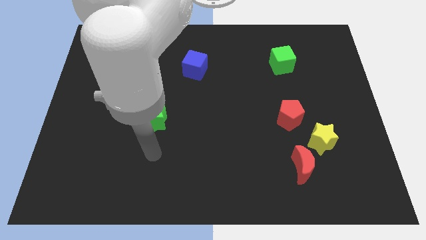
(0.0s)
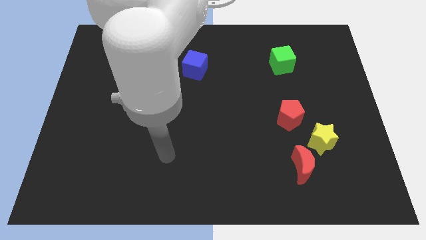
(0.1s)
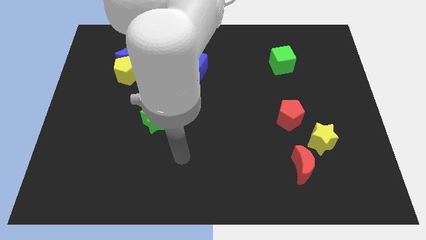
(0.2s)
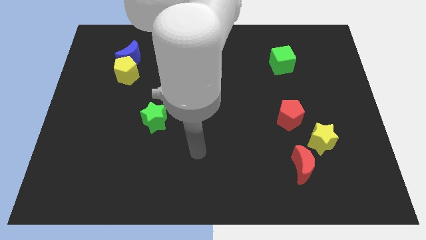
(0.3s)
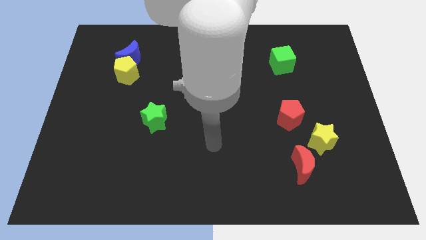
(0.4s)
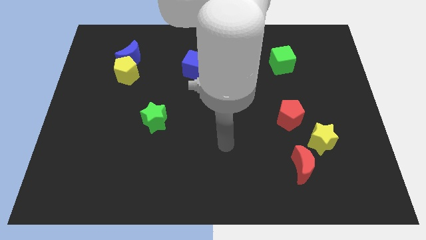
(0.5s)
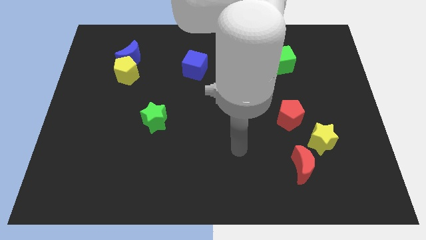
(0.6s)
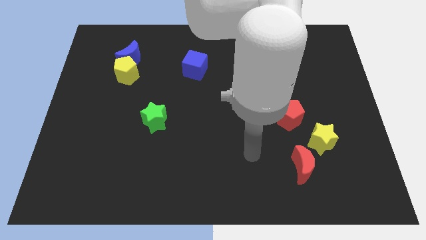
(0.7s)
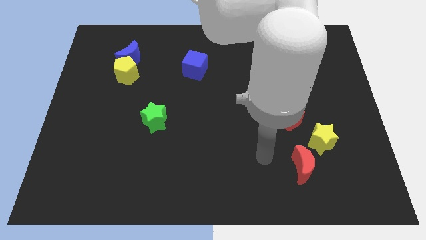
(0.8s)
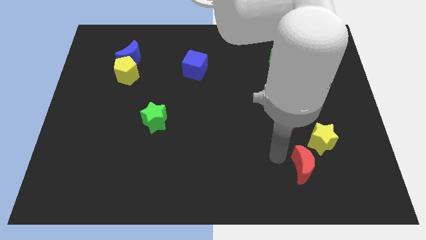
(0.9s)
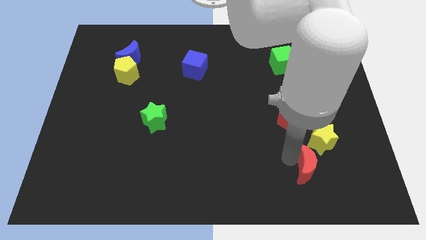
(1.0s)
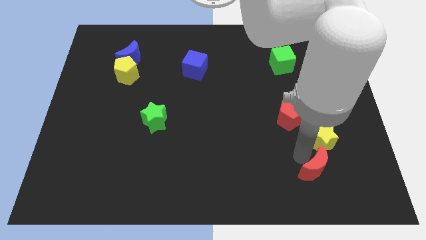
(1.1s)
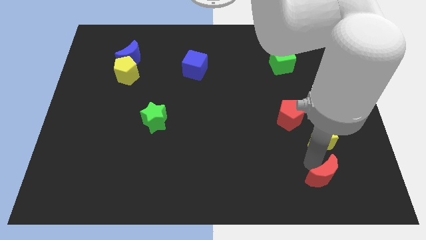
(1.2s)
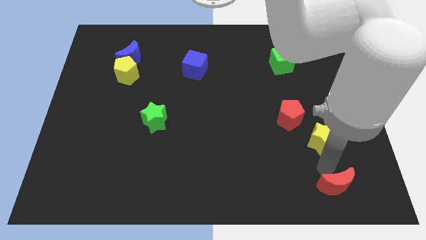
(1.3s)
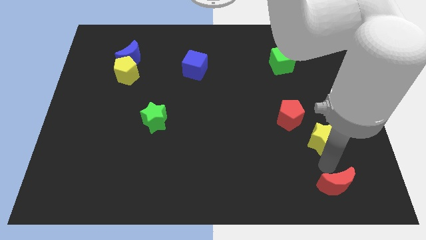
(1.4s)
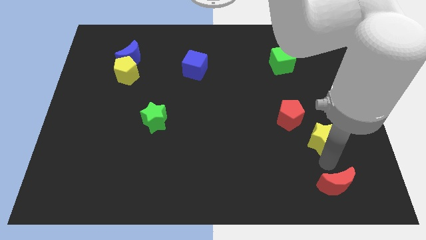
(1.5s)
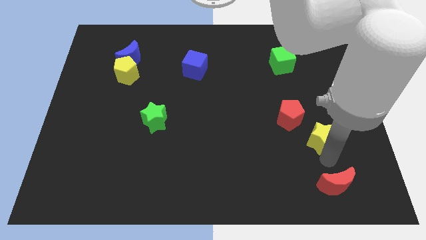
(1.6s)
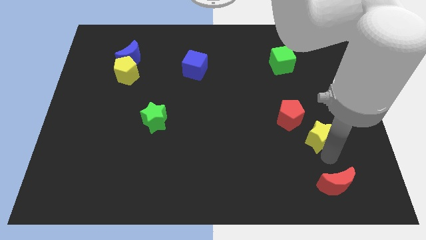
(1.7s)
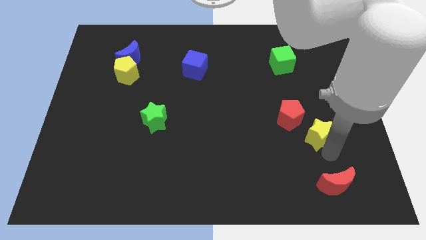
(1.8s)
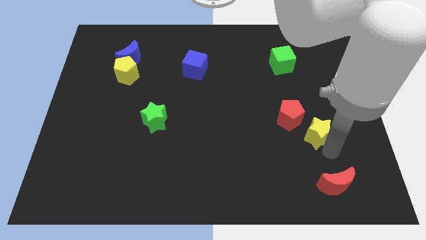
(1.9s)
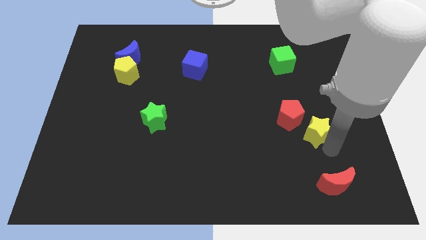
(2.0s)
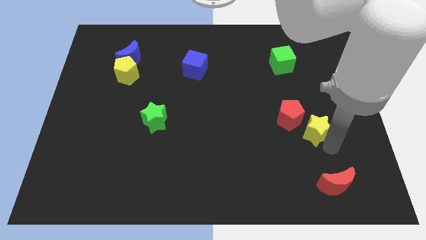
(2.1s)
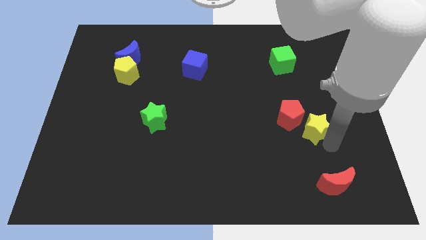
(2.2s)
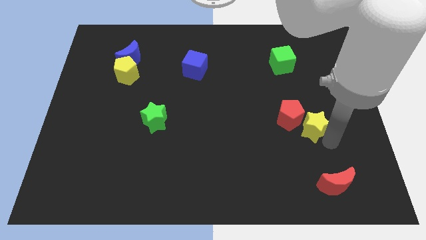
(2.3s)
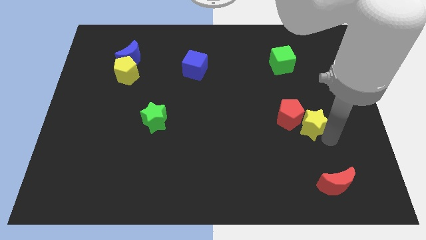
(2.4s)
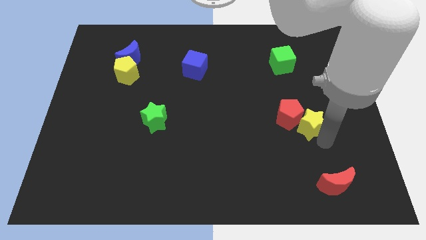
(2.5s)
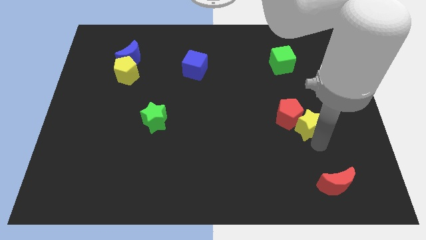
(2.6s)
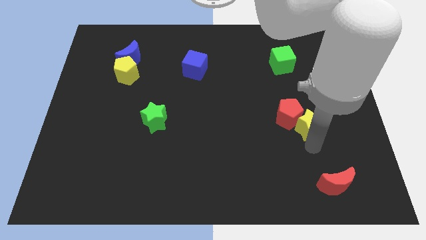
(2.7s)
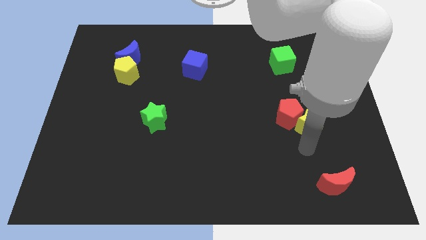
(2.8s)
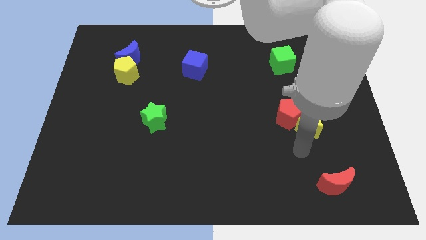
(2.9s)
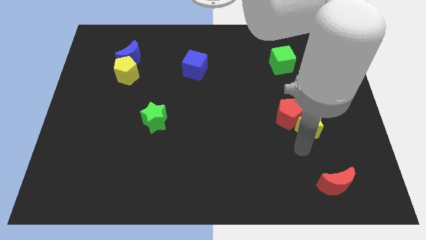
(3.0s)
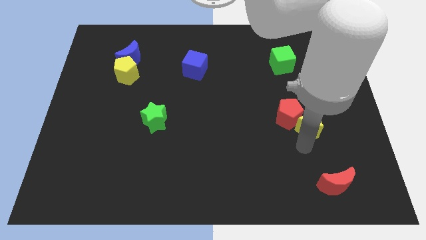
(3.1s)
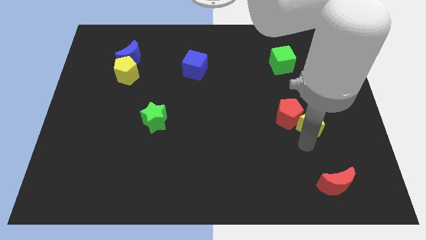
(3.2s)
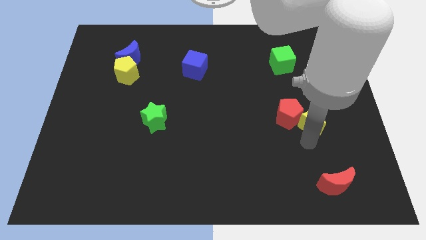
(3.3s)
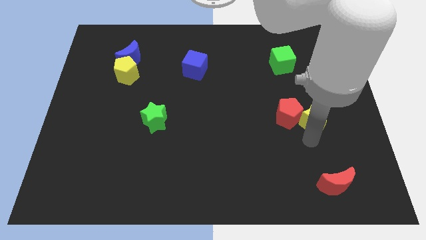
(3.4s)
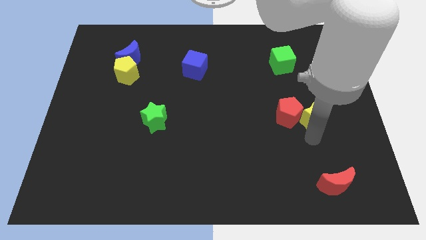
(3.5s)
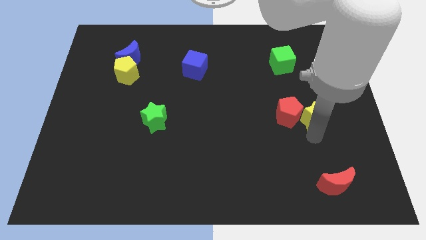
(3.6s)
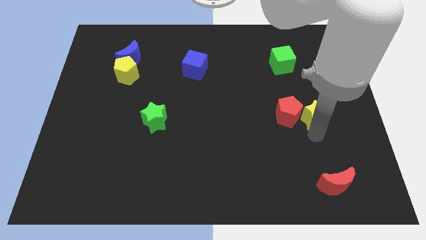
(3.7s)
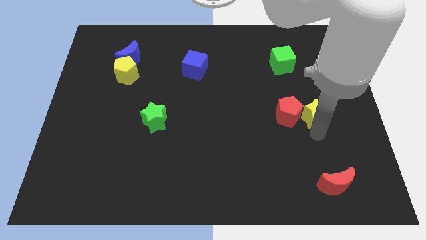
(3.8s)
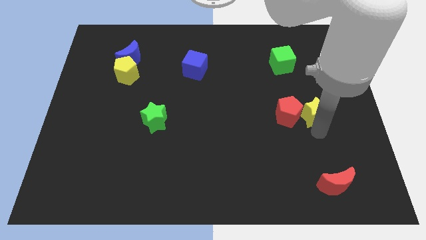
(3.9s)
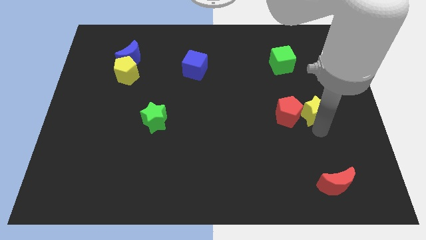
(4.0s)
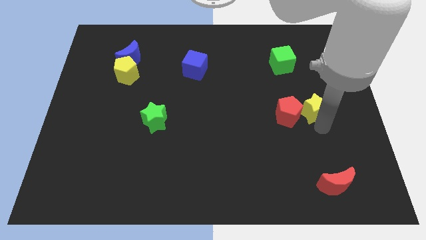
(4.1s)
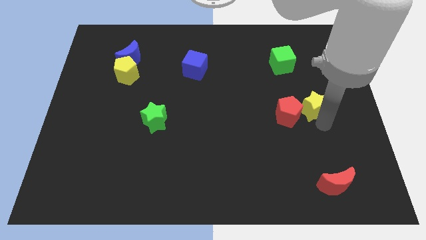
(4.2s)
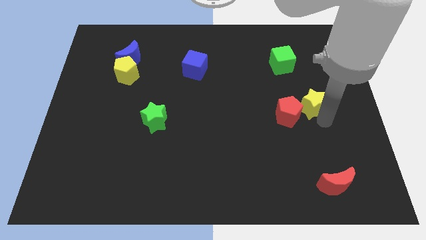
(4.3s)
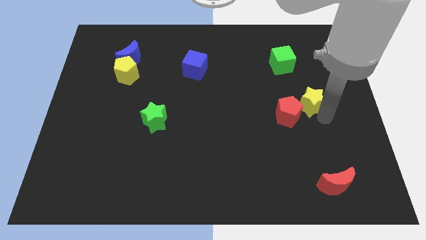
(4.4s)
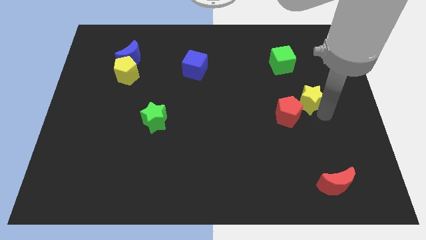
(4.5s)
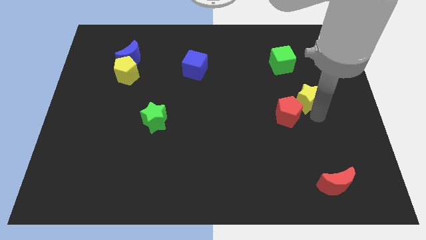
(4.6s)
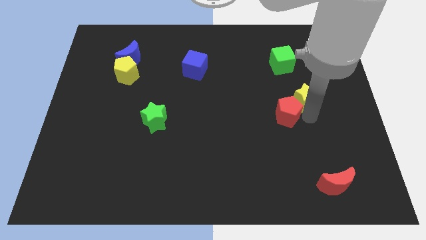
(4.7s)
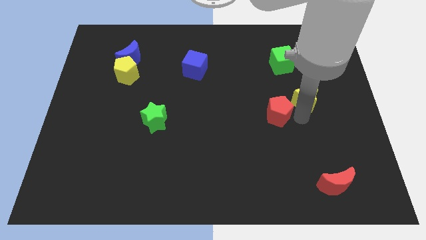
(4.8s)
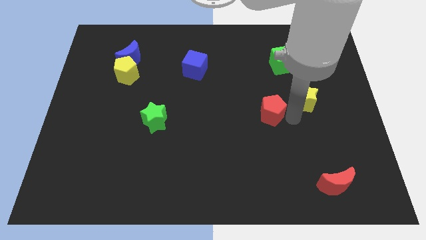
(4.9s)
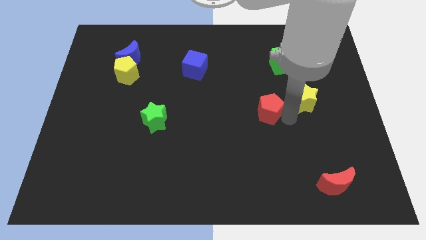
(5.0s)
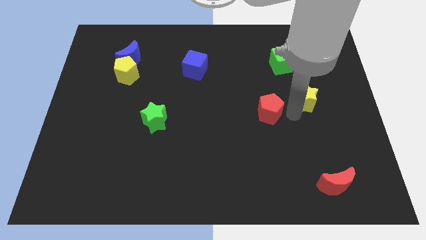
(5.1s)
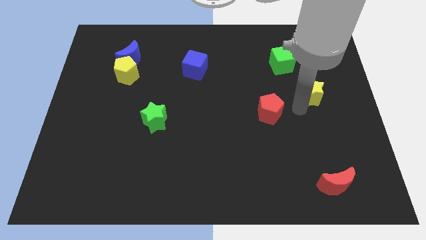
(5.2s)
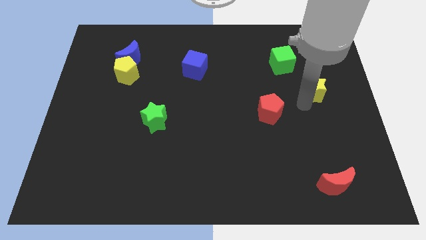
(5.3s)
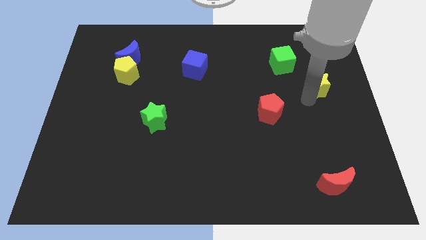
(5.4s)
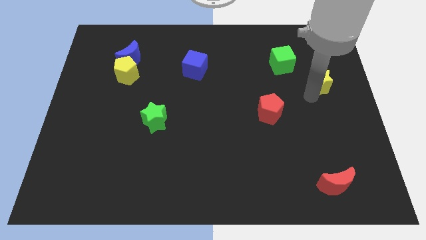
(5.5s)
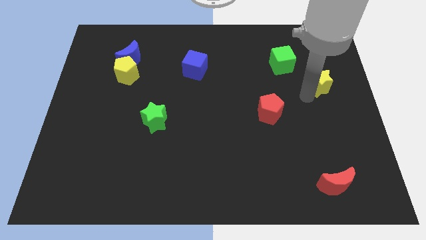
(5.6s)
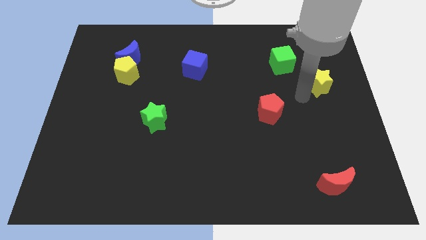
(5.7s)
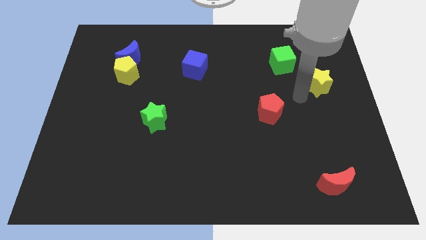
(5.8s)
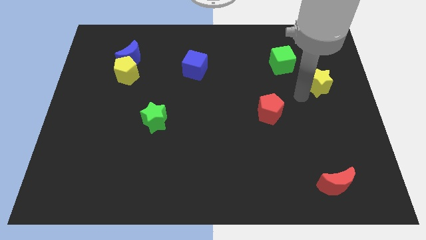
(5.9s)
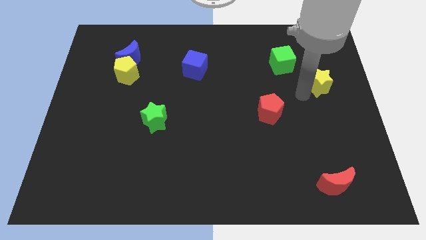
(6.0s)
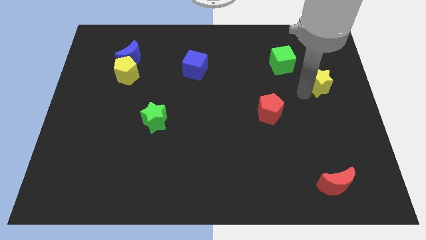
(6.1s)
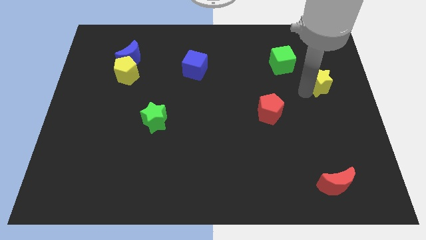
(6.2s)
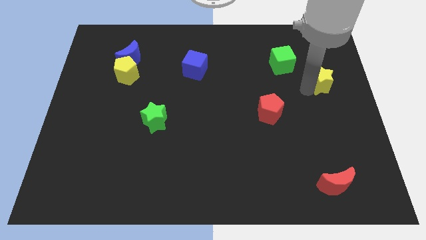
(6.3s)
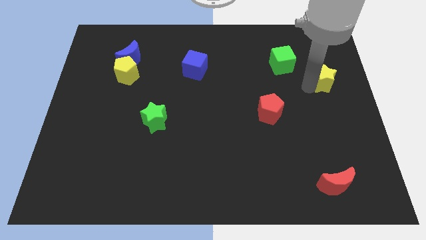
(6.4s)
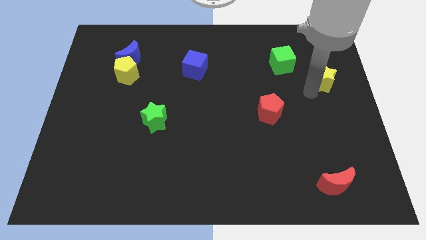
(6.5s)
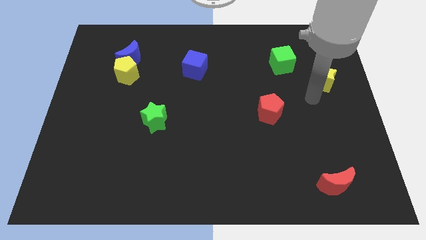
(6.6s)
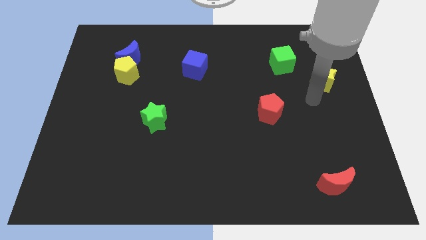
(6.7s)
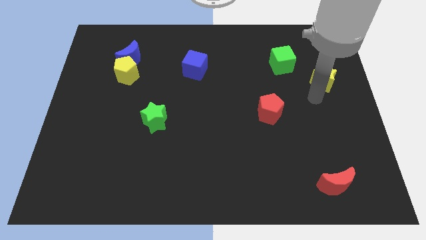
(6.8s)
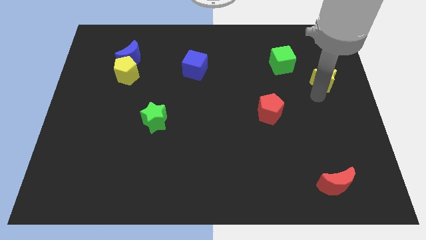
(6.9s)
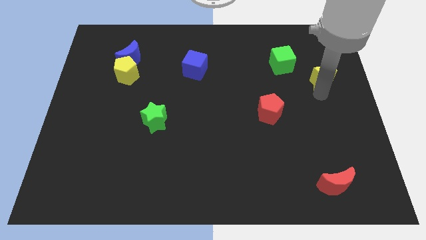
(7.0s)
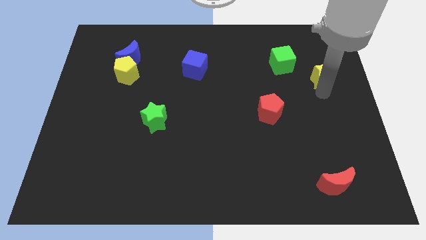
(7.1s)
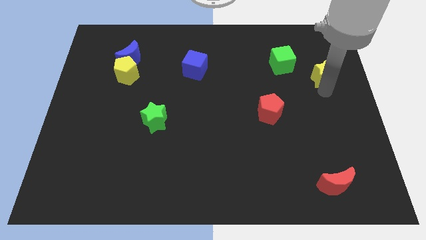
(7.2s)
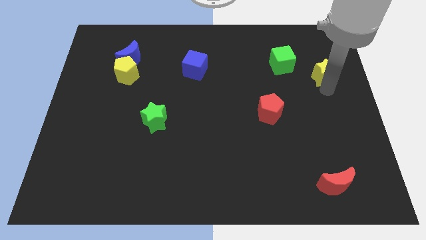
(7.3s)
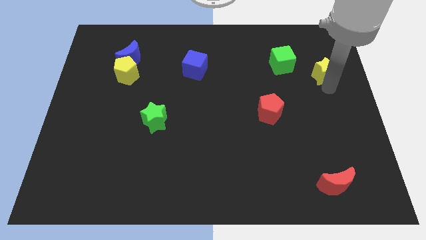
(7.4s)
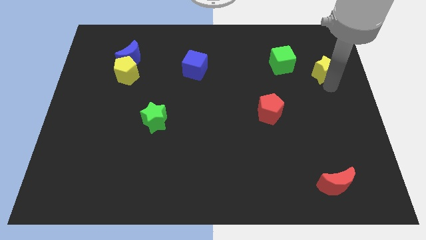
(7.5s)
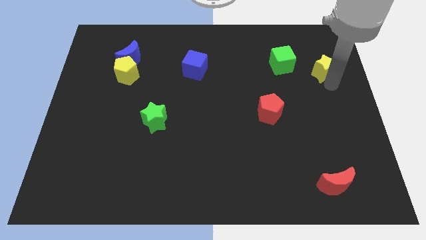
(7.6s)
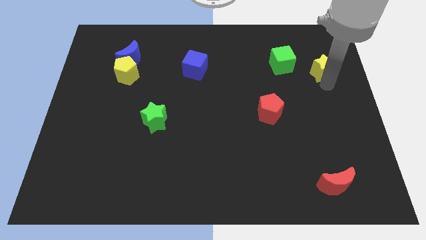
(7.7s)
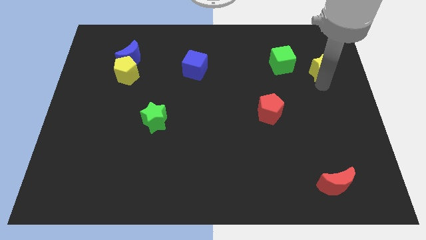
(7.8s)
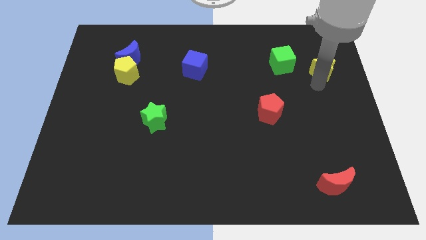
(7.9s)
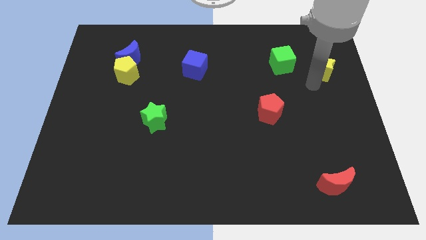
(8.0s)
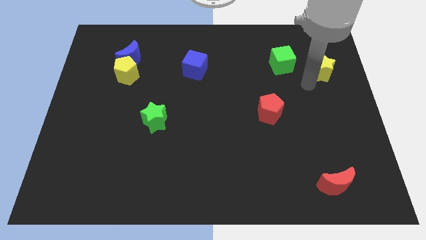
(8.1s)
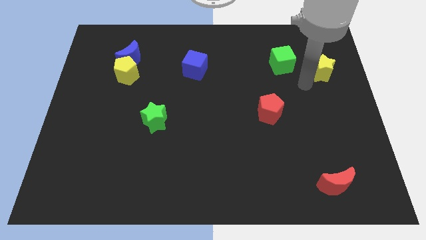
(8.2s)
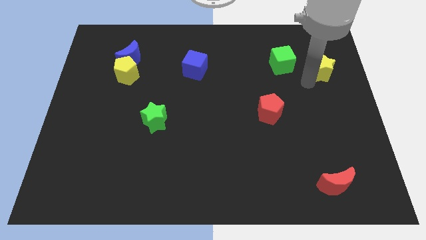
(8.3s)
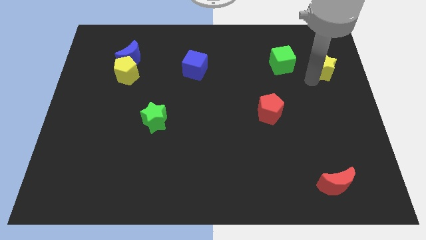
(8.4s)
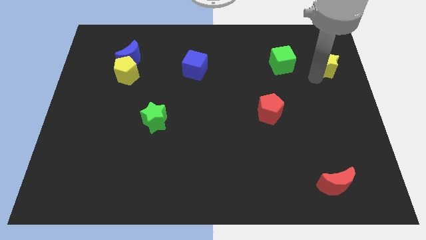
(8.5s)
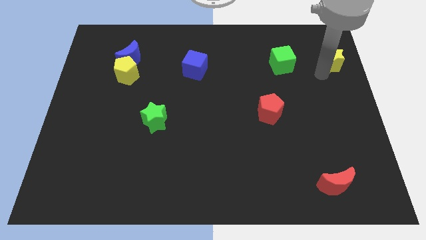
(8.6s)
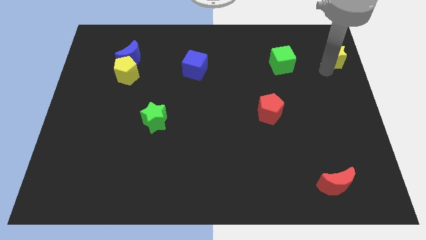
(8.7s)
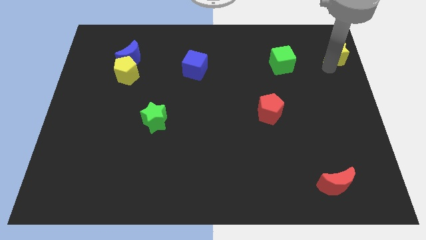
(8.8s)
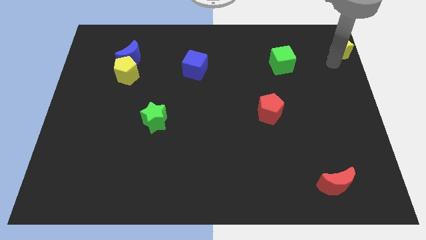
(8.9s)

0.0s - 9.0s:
slide the yellow star to the top right corner
